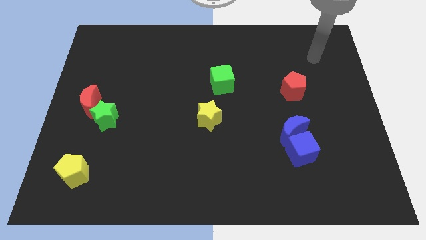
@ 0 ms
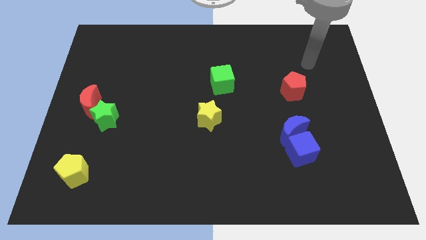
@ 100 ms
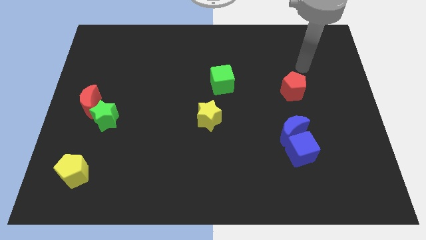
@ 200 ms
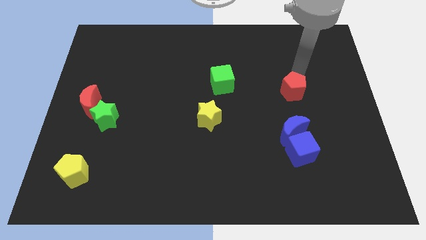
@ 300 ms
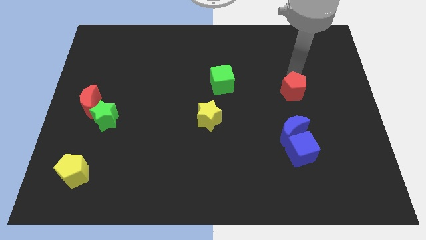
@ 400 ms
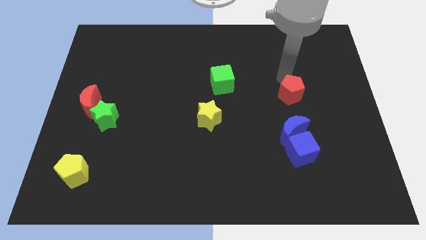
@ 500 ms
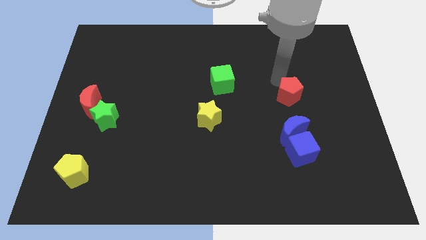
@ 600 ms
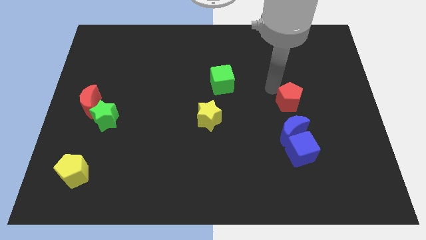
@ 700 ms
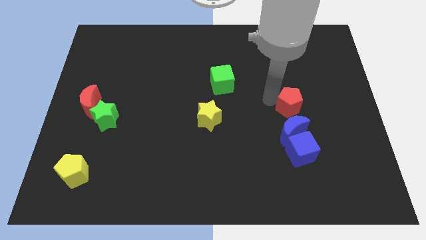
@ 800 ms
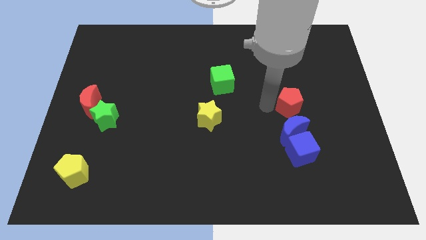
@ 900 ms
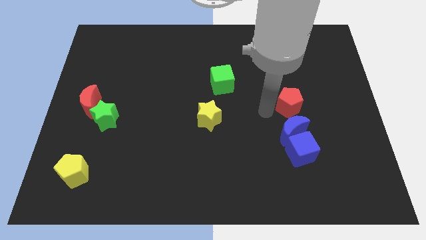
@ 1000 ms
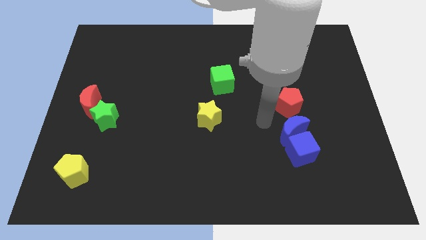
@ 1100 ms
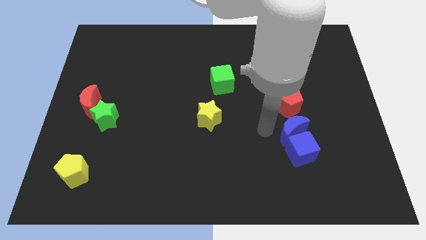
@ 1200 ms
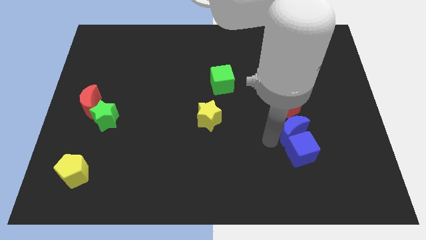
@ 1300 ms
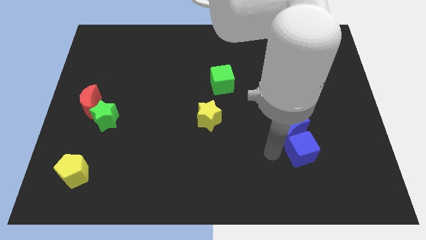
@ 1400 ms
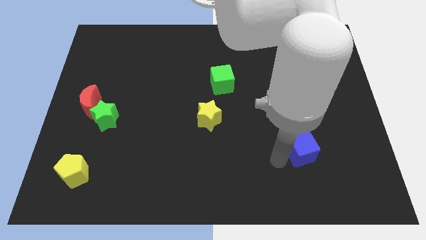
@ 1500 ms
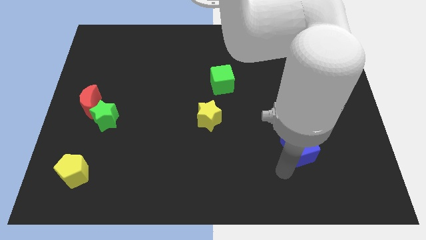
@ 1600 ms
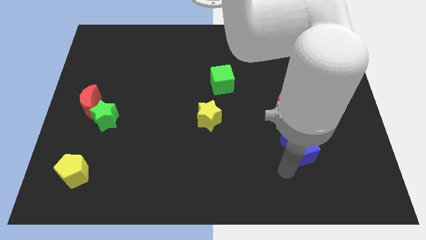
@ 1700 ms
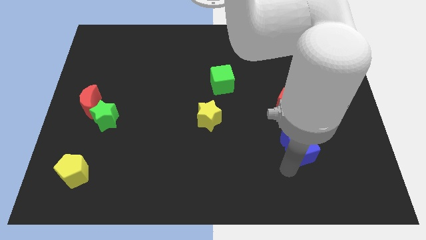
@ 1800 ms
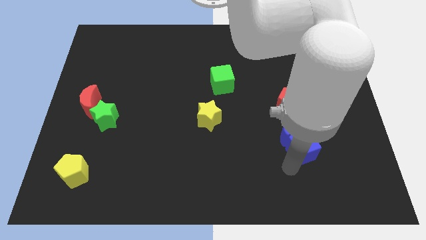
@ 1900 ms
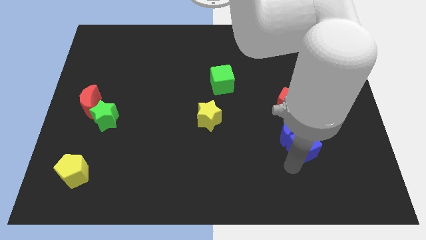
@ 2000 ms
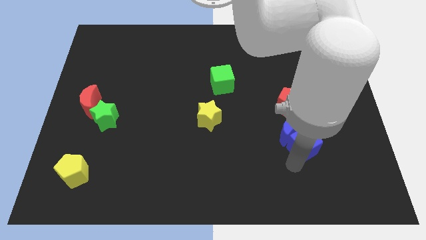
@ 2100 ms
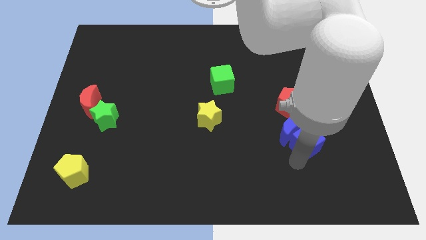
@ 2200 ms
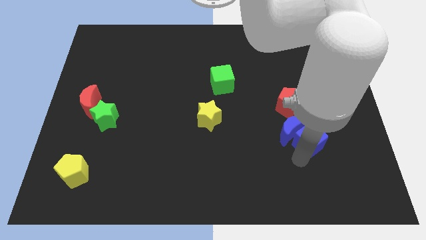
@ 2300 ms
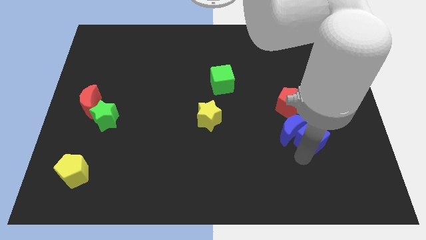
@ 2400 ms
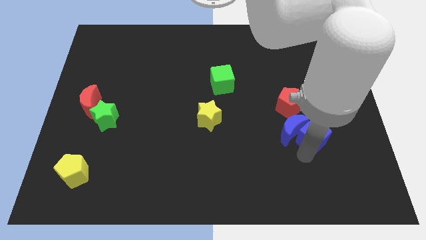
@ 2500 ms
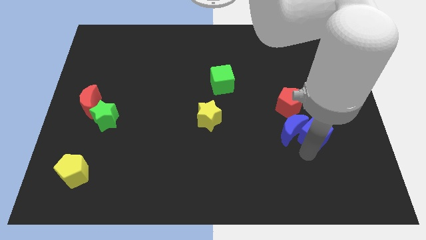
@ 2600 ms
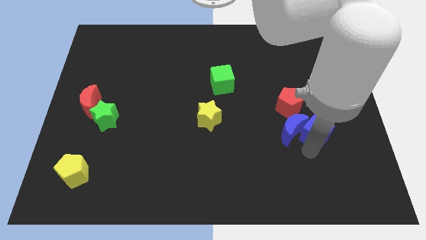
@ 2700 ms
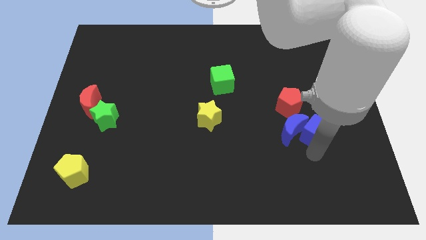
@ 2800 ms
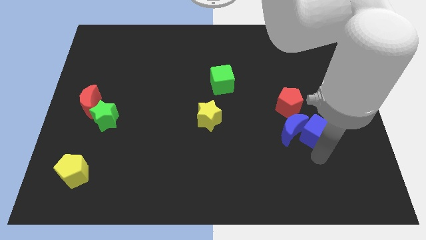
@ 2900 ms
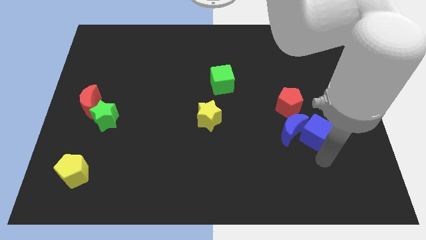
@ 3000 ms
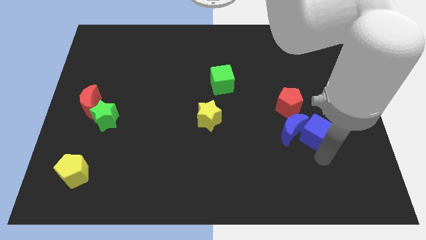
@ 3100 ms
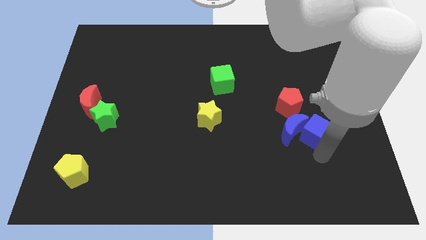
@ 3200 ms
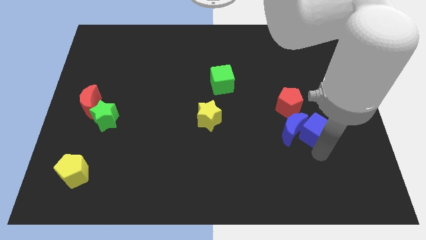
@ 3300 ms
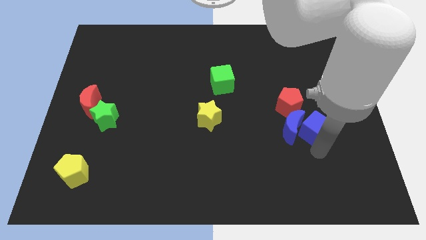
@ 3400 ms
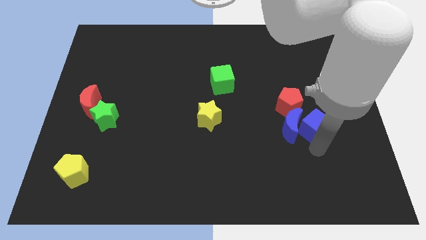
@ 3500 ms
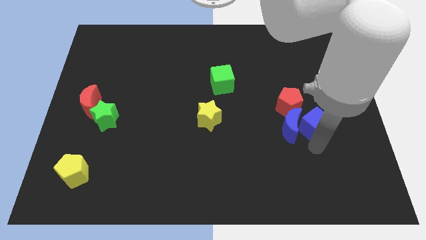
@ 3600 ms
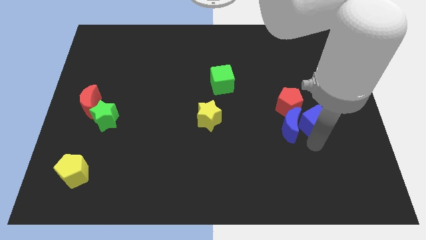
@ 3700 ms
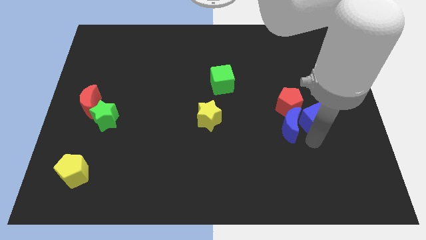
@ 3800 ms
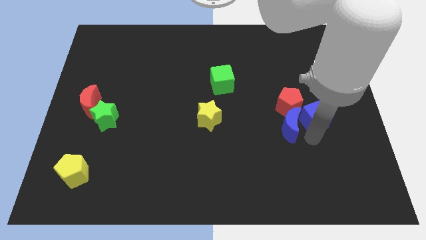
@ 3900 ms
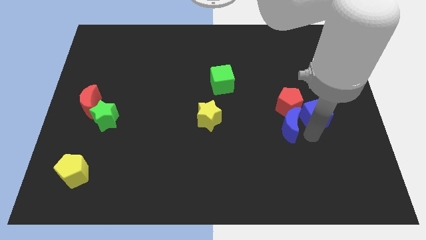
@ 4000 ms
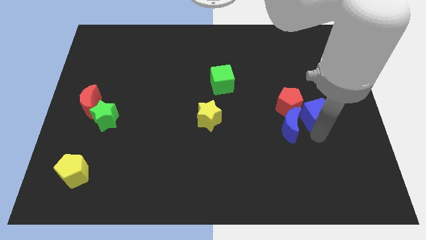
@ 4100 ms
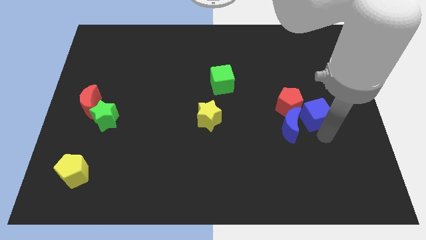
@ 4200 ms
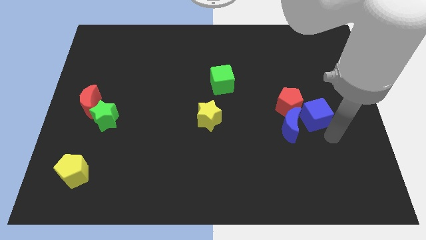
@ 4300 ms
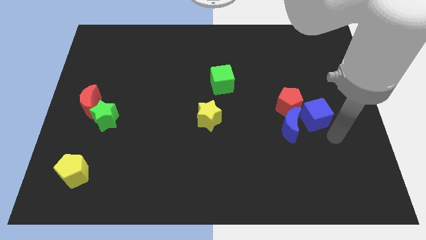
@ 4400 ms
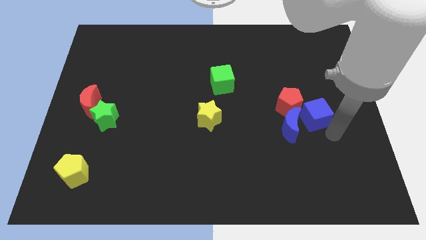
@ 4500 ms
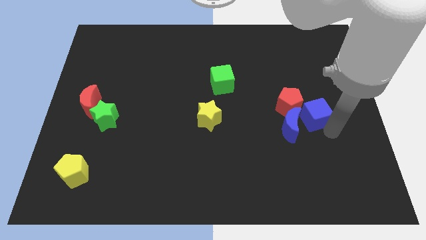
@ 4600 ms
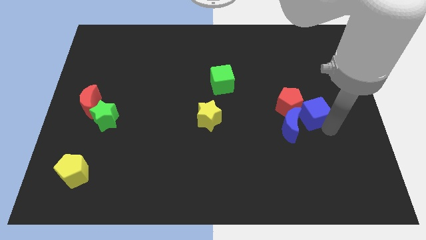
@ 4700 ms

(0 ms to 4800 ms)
push the blue cube next to the red pentagon

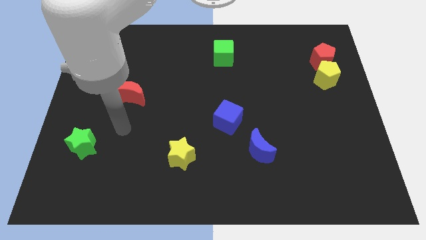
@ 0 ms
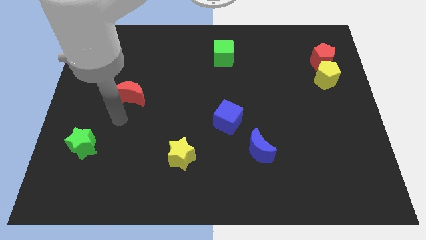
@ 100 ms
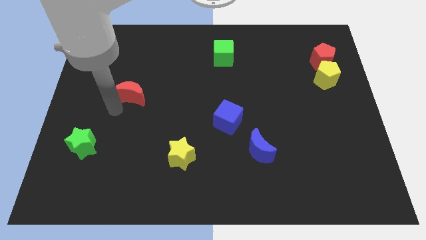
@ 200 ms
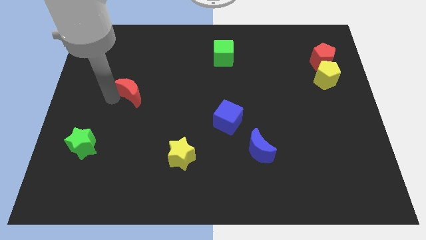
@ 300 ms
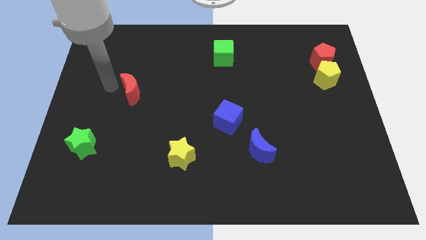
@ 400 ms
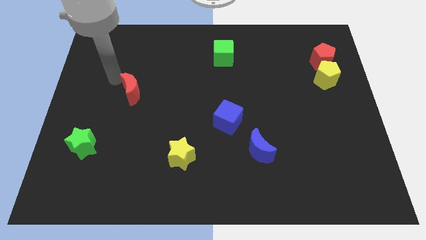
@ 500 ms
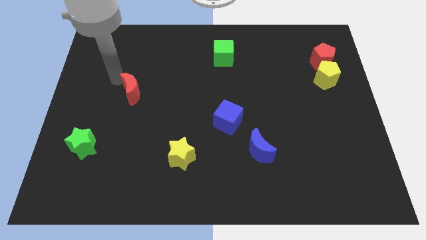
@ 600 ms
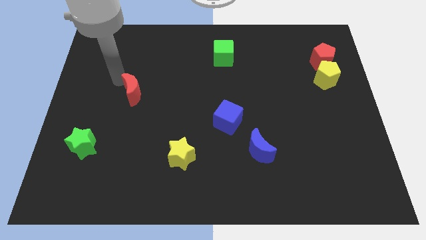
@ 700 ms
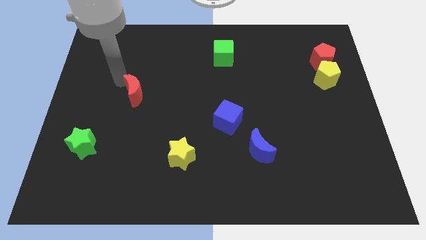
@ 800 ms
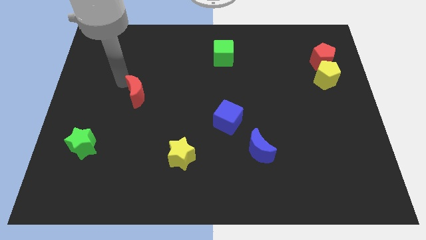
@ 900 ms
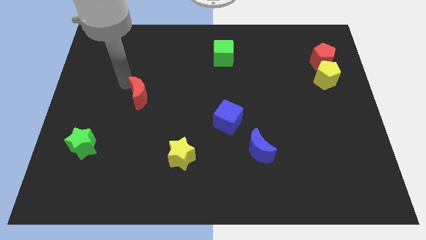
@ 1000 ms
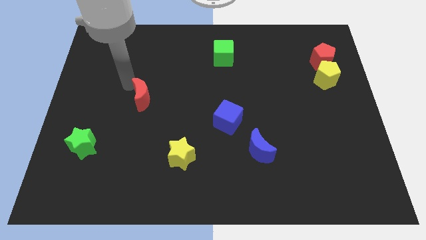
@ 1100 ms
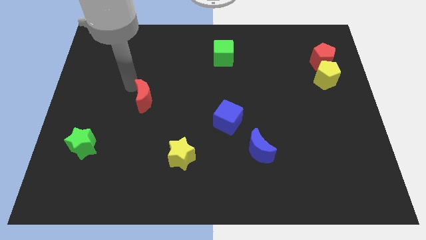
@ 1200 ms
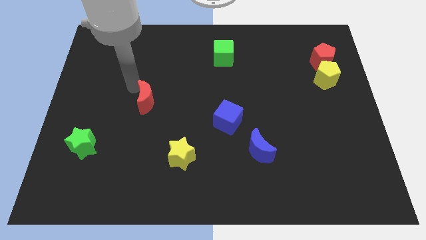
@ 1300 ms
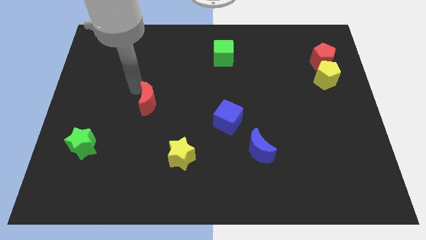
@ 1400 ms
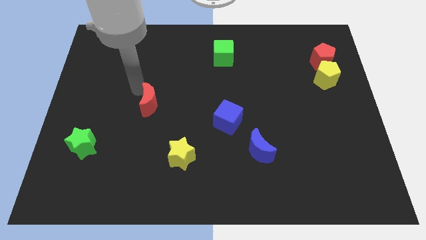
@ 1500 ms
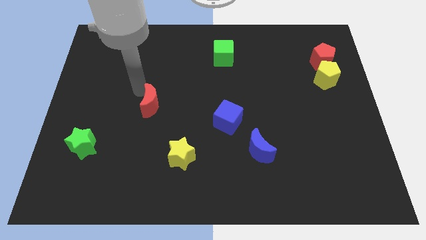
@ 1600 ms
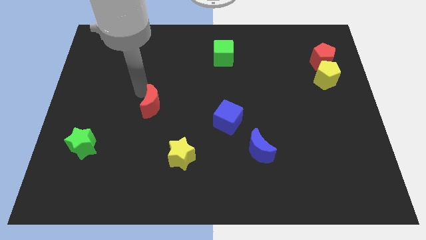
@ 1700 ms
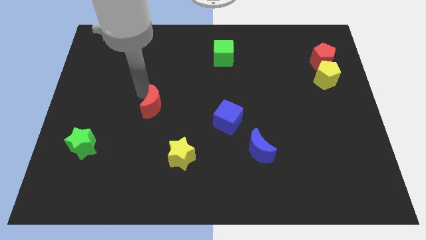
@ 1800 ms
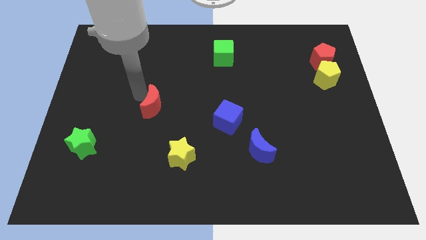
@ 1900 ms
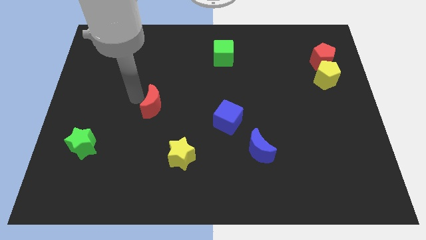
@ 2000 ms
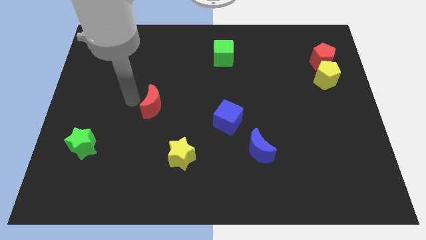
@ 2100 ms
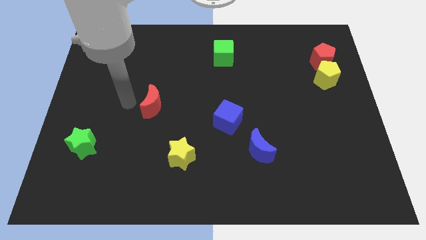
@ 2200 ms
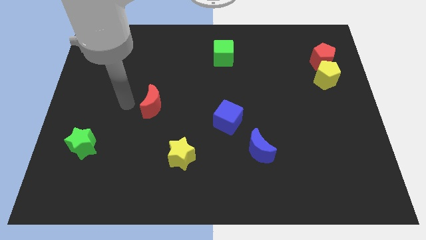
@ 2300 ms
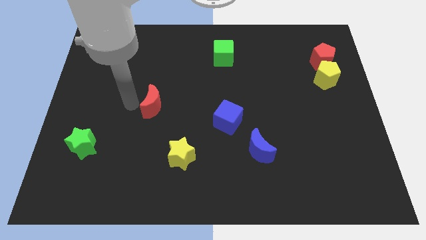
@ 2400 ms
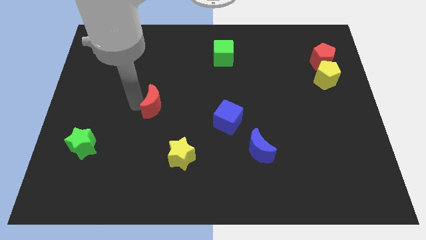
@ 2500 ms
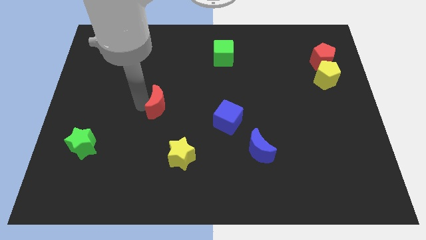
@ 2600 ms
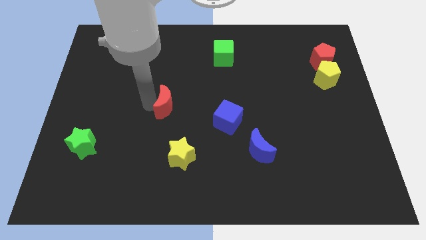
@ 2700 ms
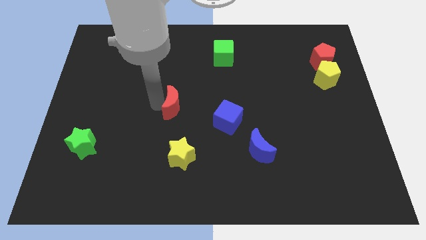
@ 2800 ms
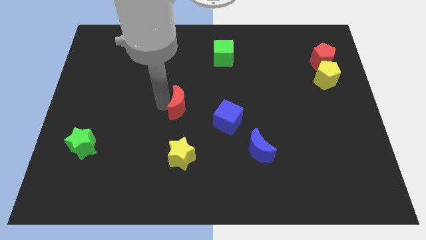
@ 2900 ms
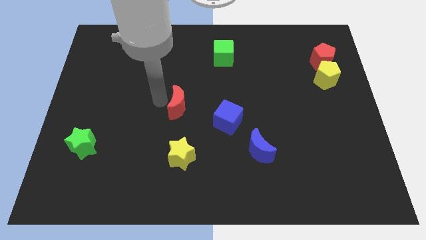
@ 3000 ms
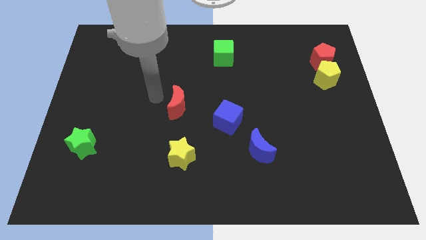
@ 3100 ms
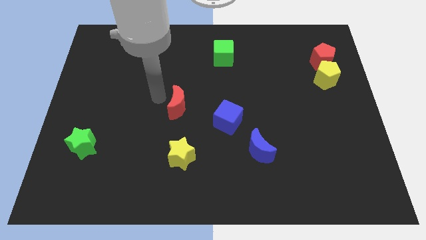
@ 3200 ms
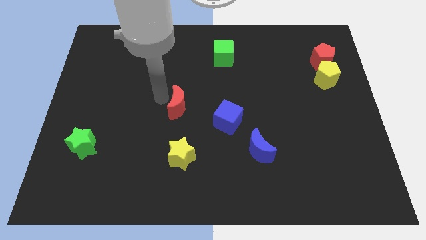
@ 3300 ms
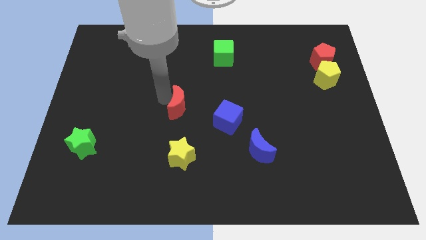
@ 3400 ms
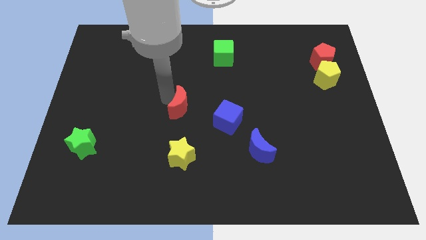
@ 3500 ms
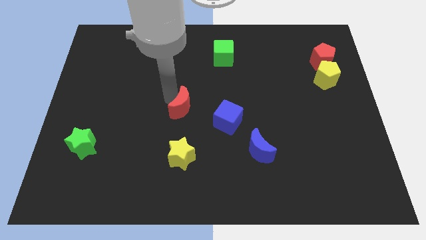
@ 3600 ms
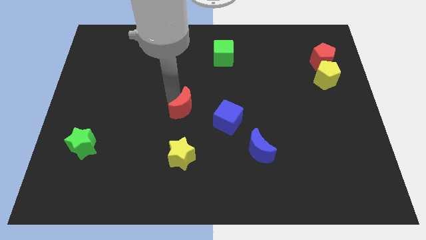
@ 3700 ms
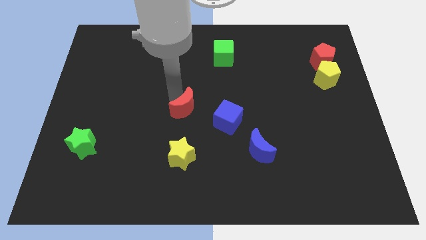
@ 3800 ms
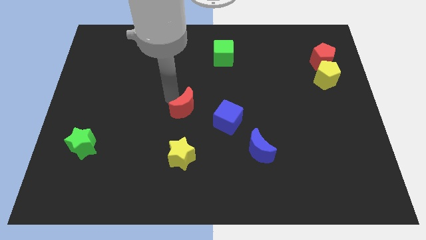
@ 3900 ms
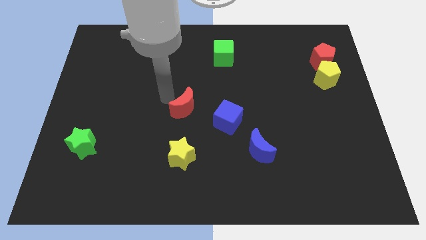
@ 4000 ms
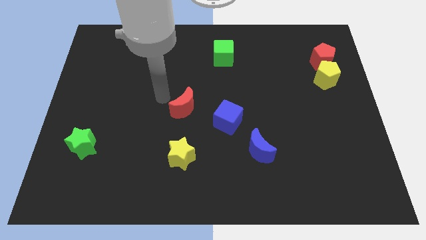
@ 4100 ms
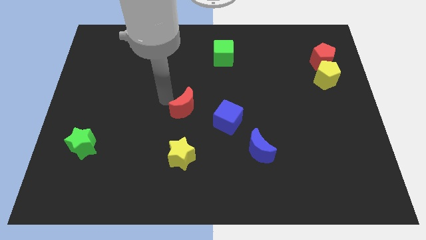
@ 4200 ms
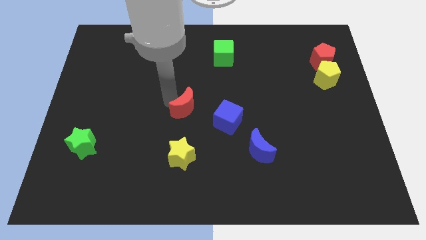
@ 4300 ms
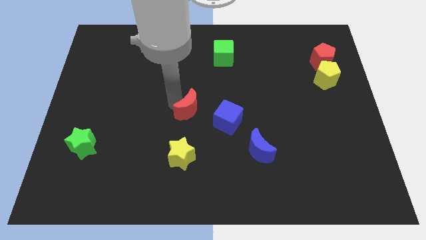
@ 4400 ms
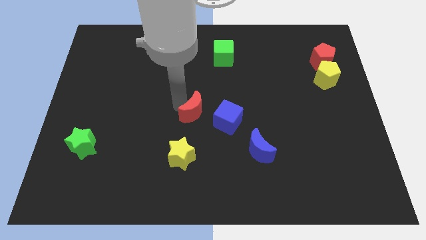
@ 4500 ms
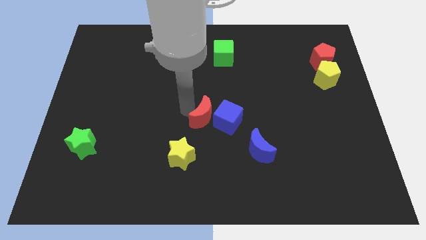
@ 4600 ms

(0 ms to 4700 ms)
move the red moon close to the blue cube
